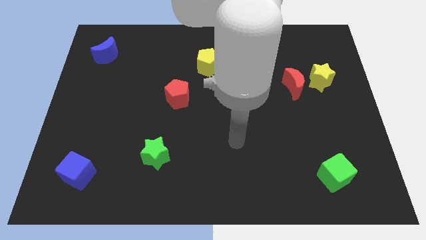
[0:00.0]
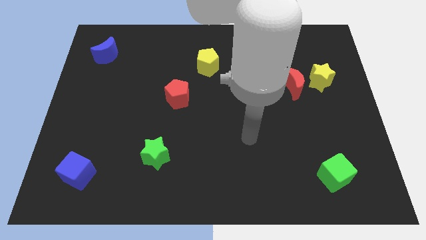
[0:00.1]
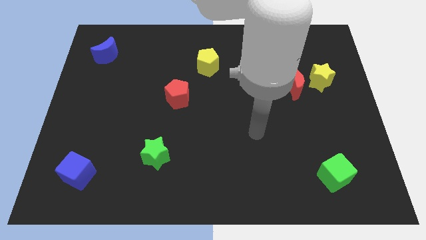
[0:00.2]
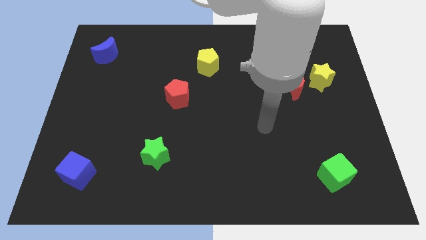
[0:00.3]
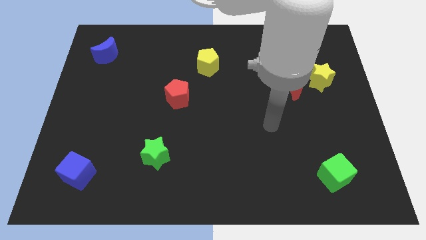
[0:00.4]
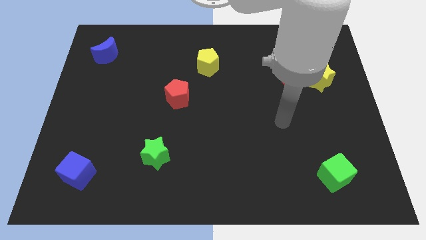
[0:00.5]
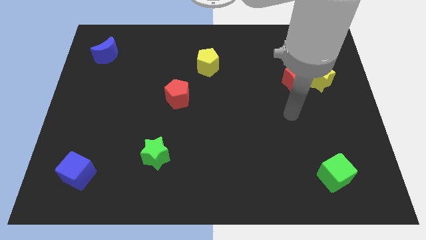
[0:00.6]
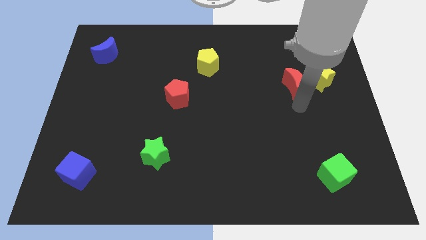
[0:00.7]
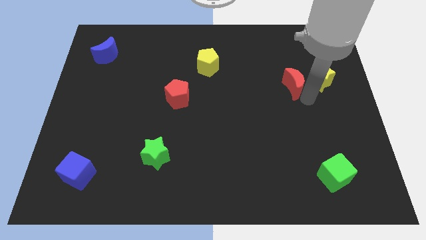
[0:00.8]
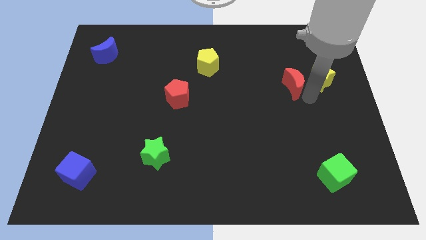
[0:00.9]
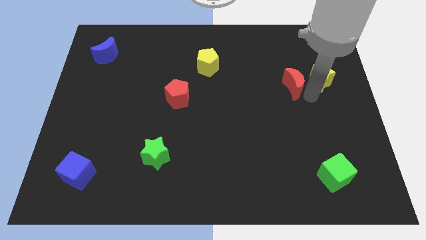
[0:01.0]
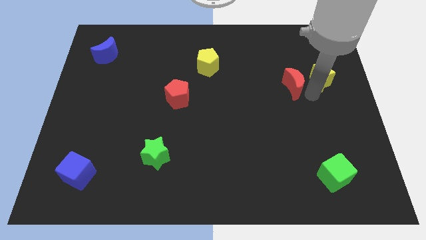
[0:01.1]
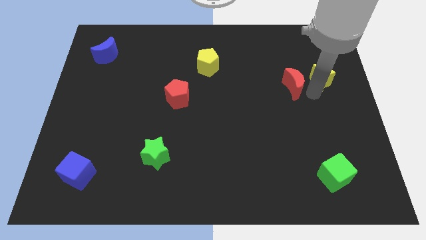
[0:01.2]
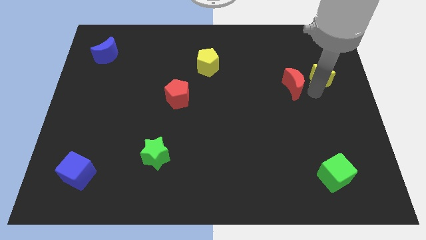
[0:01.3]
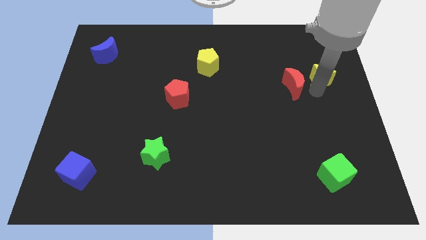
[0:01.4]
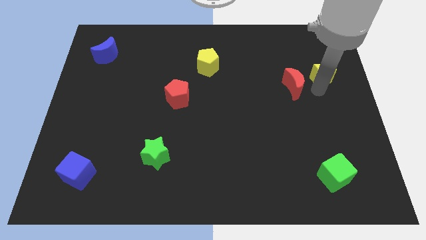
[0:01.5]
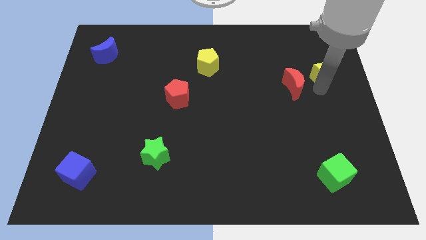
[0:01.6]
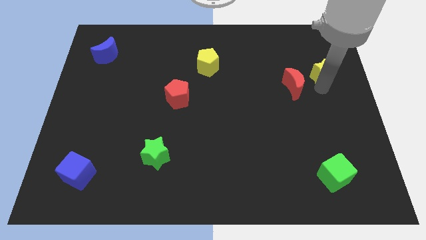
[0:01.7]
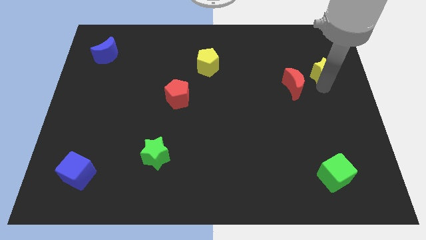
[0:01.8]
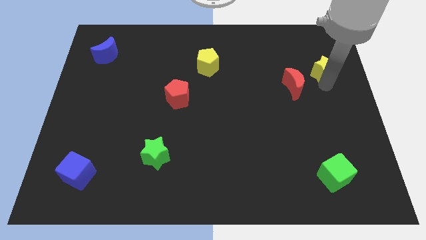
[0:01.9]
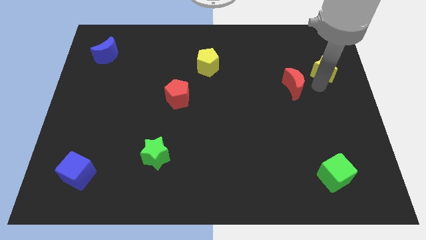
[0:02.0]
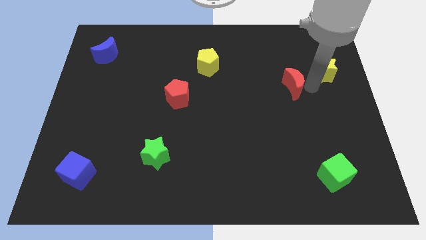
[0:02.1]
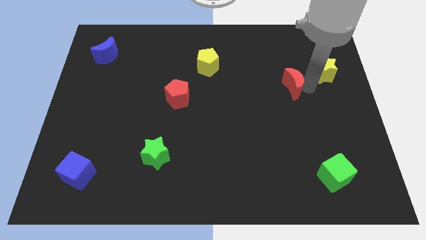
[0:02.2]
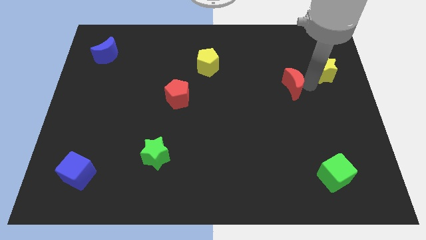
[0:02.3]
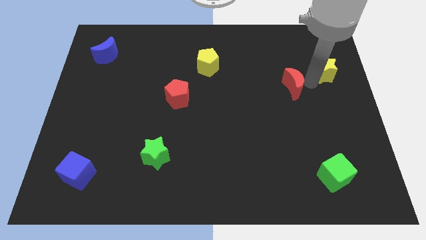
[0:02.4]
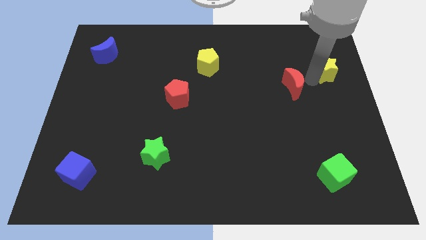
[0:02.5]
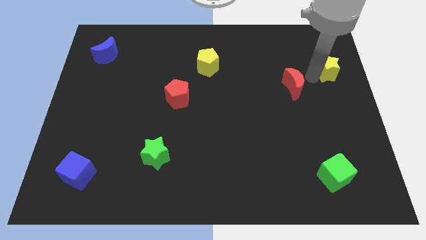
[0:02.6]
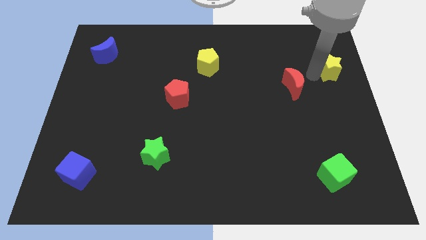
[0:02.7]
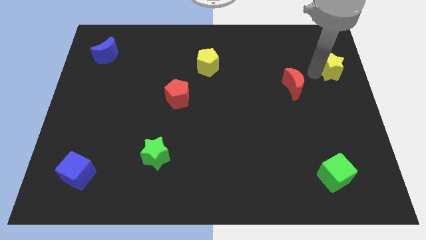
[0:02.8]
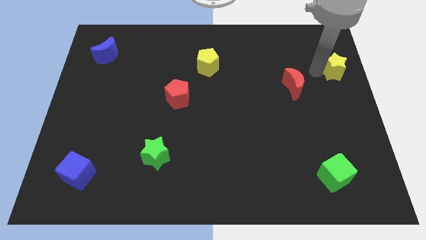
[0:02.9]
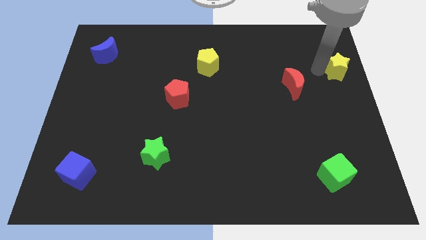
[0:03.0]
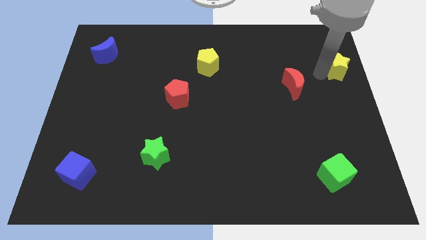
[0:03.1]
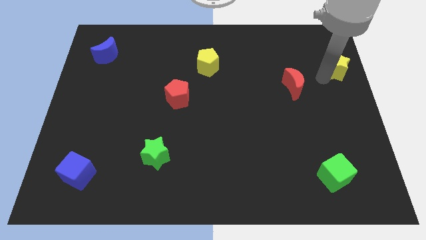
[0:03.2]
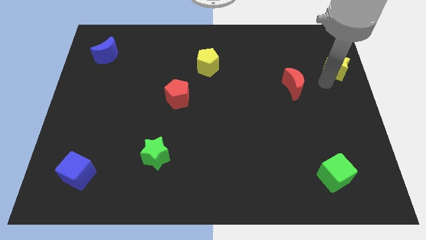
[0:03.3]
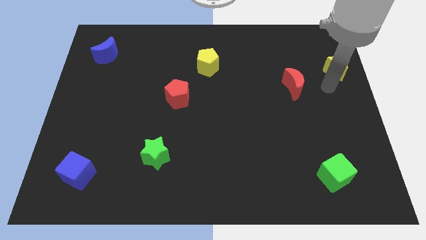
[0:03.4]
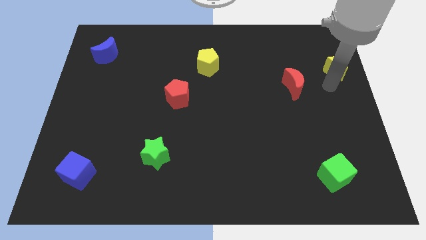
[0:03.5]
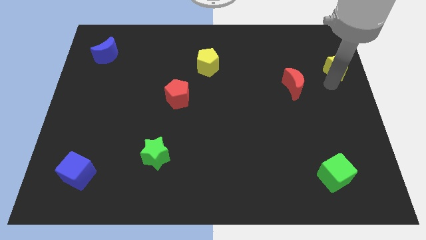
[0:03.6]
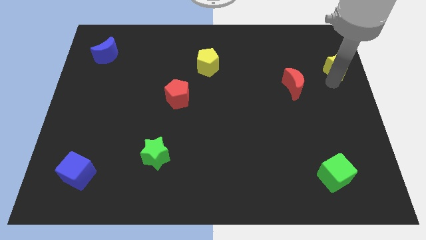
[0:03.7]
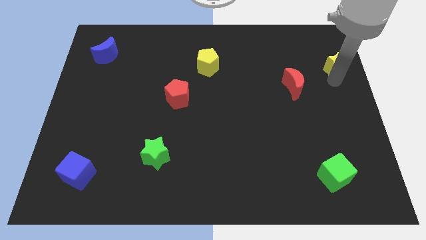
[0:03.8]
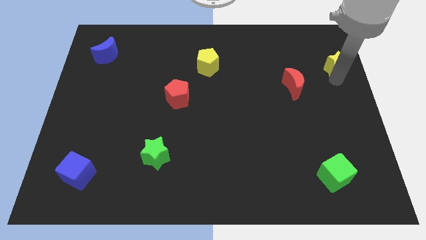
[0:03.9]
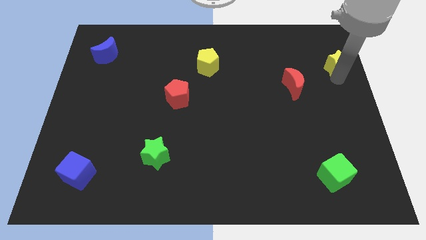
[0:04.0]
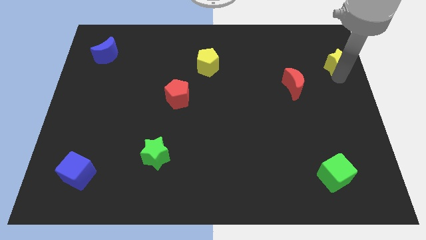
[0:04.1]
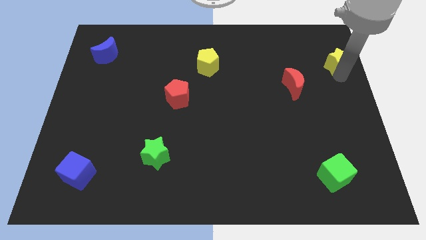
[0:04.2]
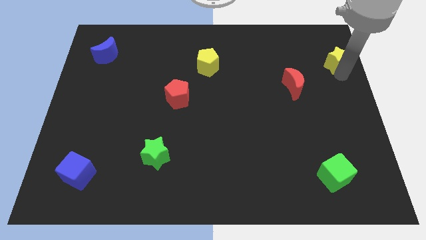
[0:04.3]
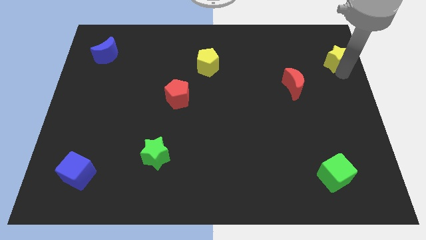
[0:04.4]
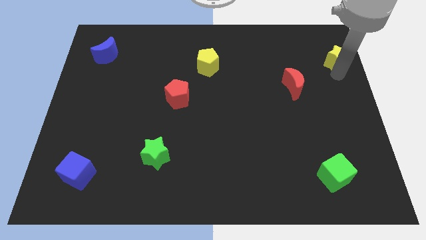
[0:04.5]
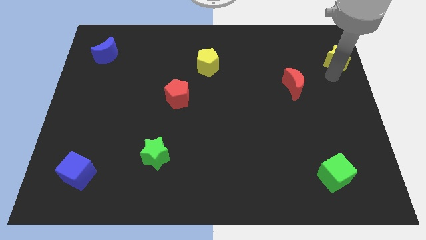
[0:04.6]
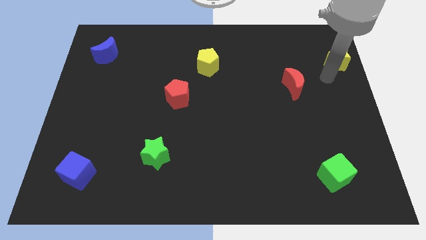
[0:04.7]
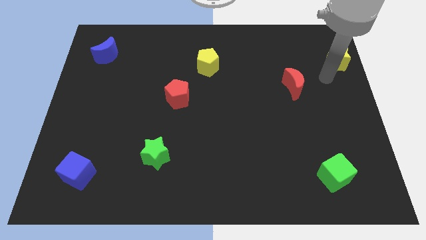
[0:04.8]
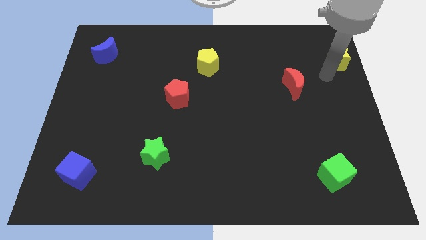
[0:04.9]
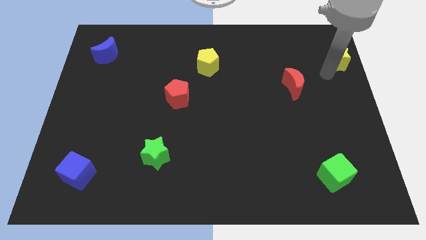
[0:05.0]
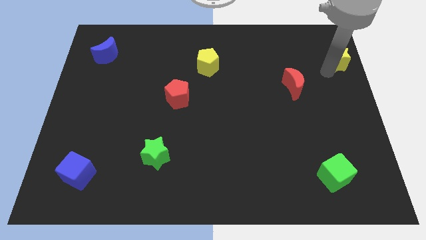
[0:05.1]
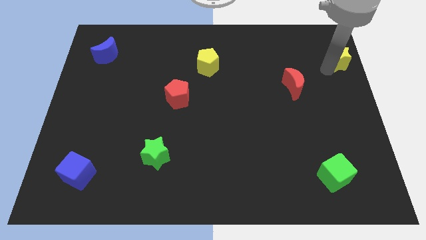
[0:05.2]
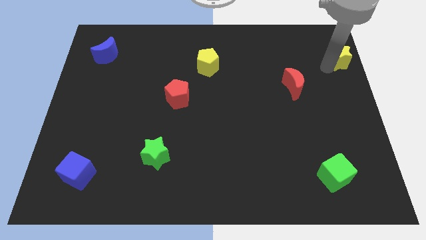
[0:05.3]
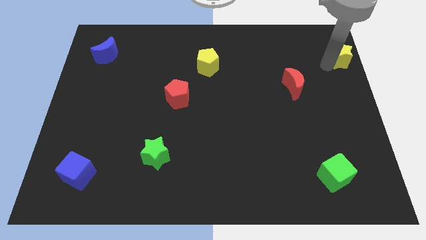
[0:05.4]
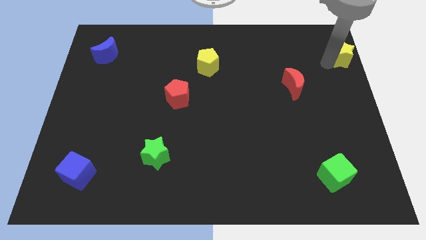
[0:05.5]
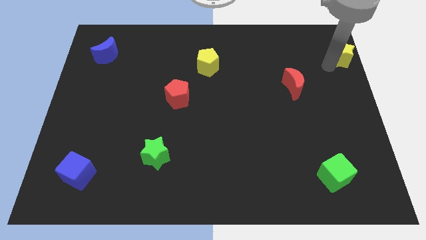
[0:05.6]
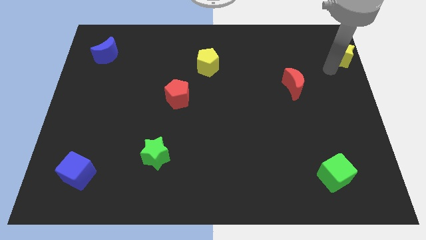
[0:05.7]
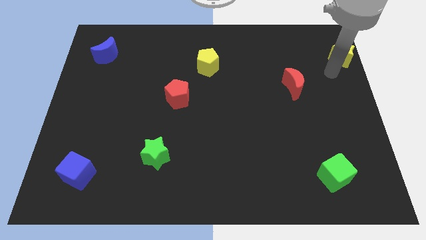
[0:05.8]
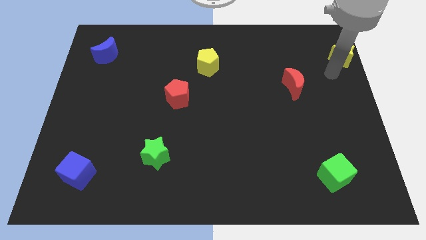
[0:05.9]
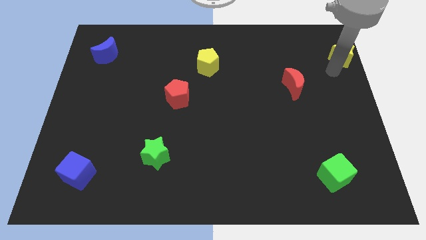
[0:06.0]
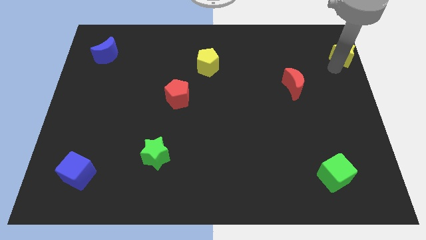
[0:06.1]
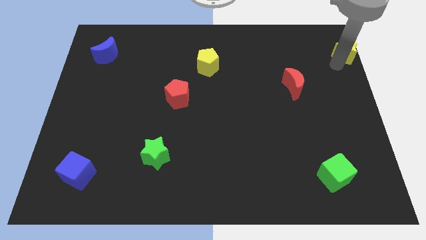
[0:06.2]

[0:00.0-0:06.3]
slide the yellow star to the top right
